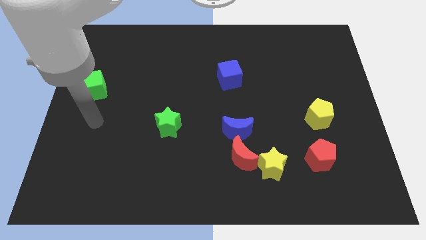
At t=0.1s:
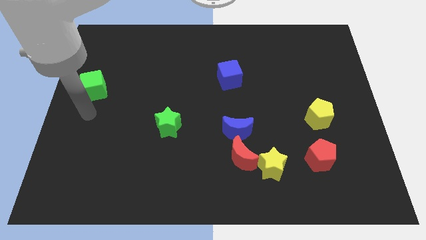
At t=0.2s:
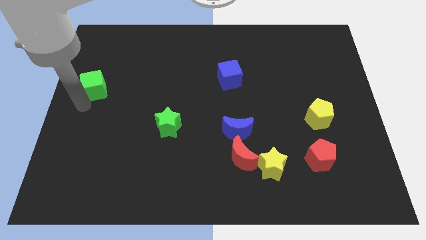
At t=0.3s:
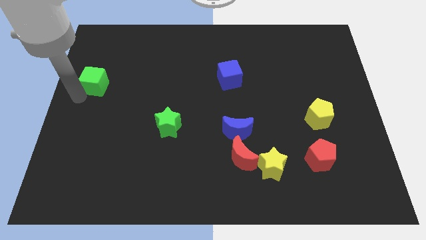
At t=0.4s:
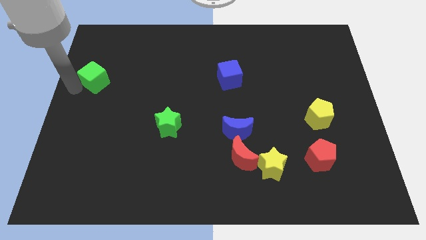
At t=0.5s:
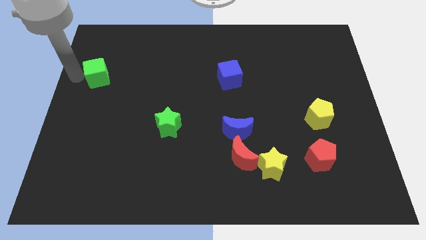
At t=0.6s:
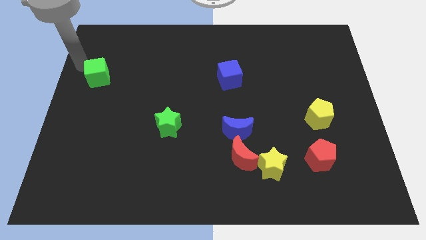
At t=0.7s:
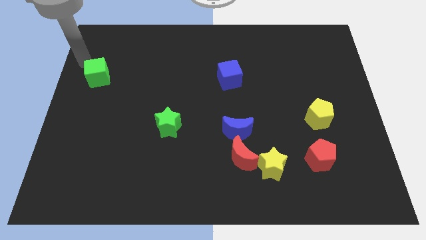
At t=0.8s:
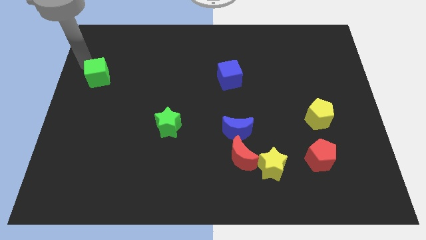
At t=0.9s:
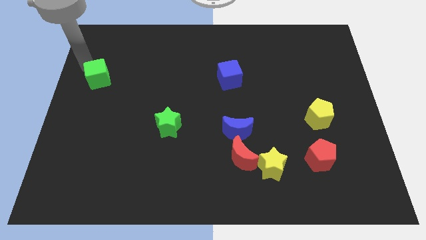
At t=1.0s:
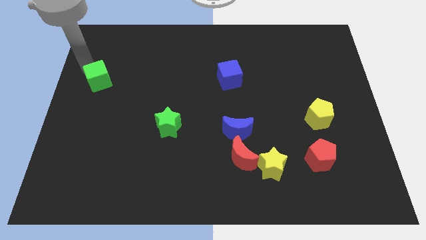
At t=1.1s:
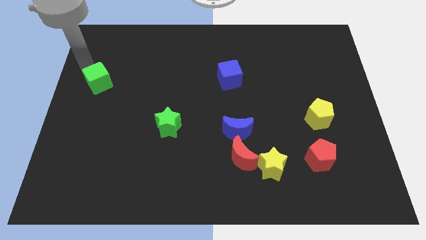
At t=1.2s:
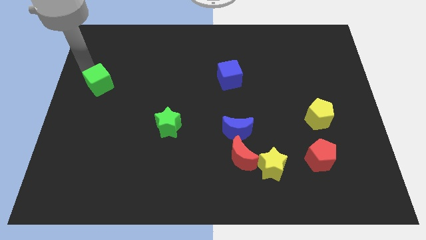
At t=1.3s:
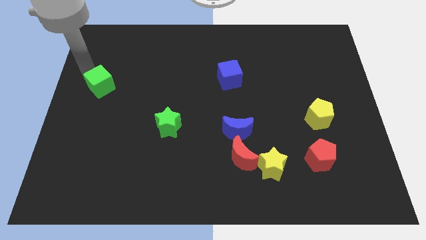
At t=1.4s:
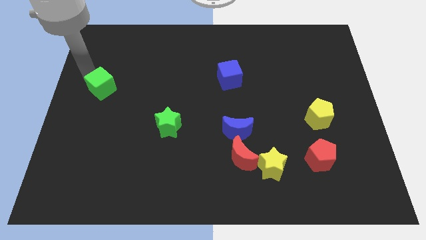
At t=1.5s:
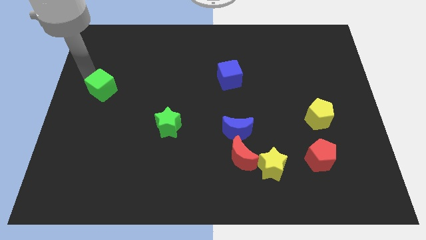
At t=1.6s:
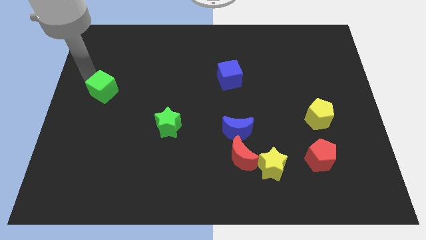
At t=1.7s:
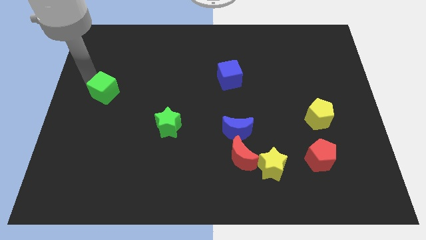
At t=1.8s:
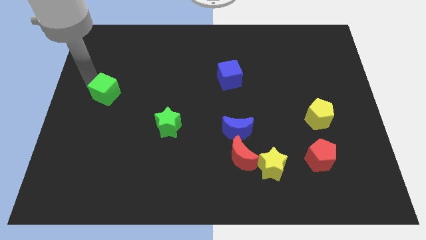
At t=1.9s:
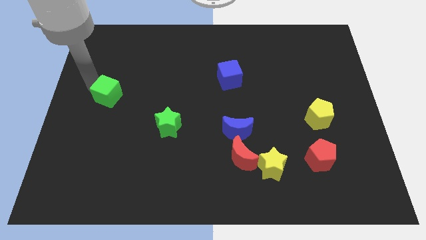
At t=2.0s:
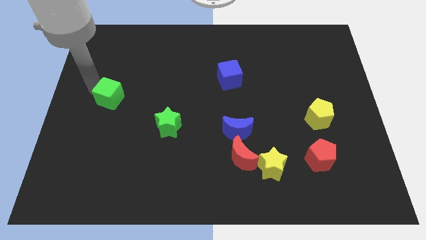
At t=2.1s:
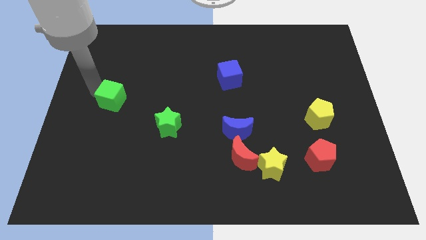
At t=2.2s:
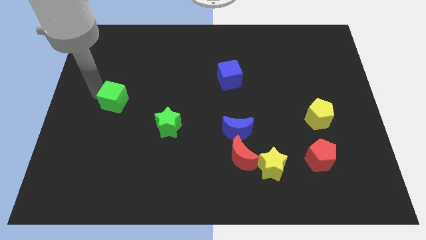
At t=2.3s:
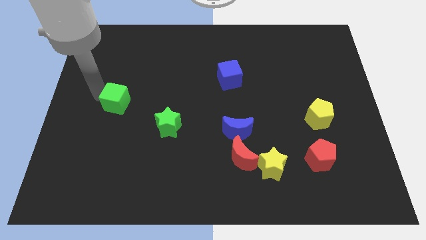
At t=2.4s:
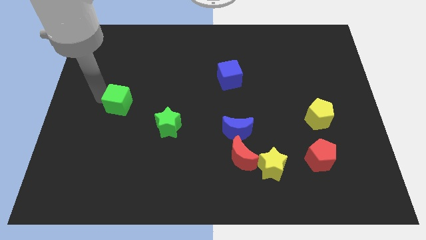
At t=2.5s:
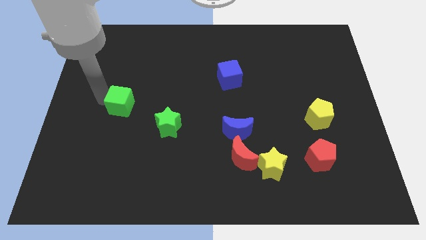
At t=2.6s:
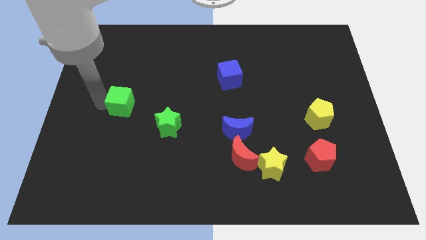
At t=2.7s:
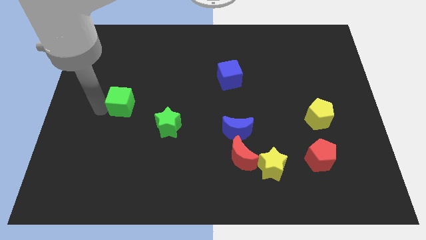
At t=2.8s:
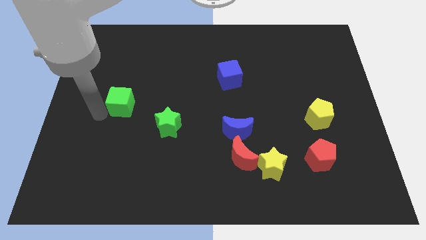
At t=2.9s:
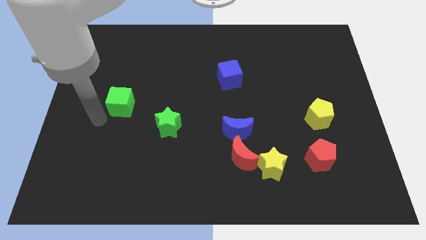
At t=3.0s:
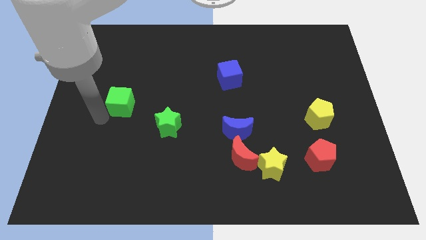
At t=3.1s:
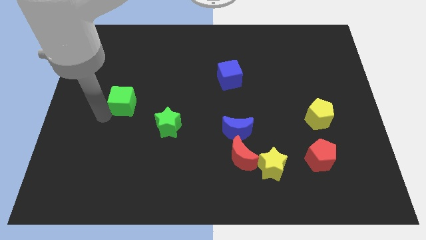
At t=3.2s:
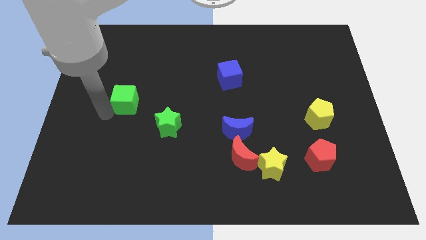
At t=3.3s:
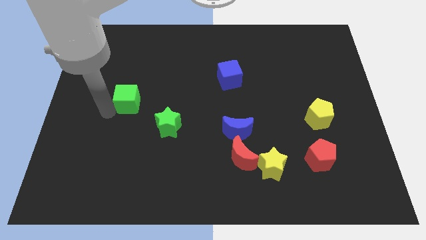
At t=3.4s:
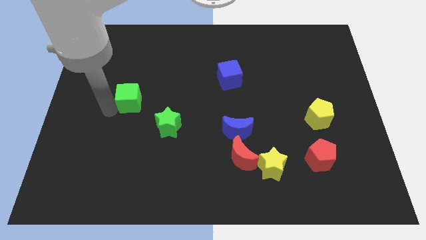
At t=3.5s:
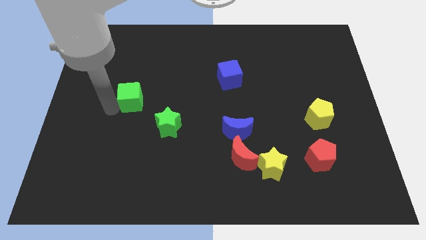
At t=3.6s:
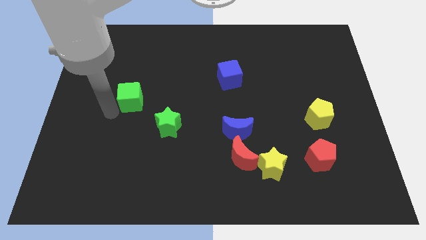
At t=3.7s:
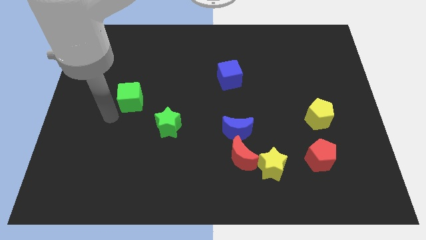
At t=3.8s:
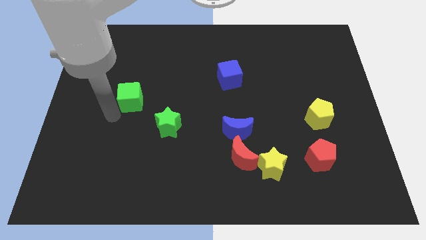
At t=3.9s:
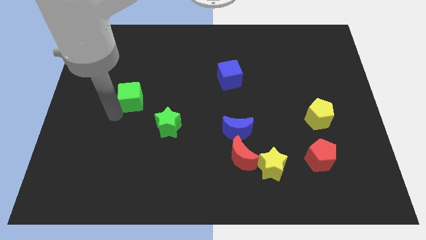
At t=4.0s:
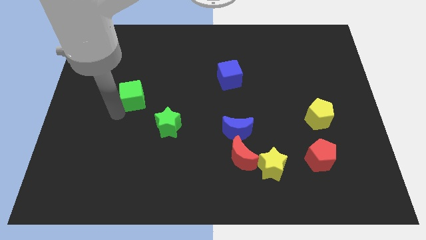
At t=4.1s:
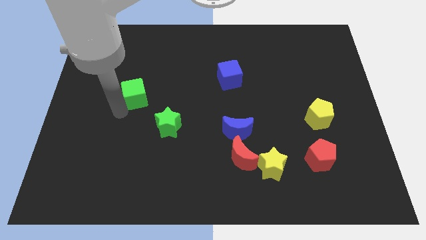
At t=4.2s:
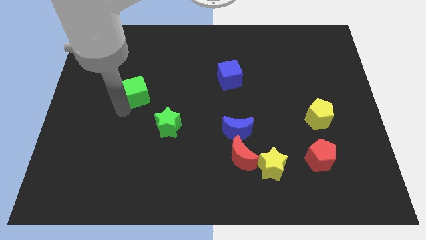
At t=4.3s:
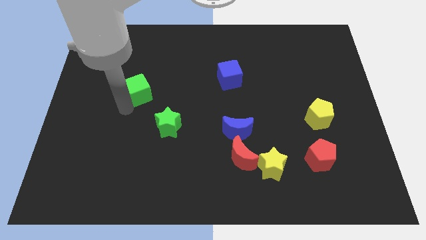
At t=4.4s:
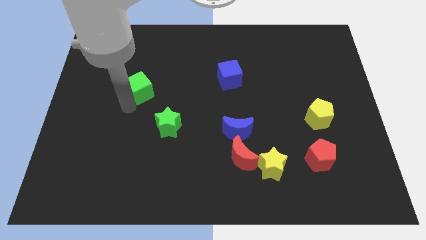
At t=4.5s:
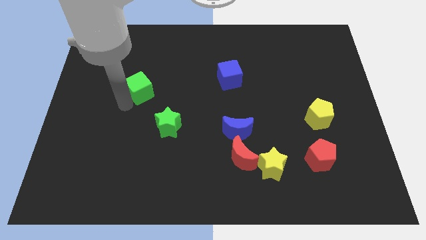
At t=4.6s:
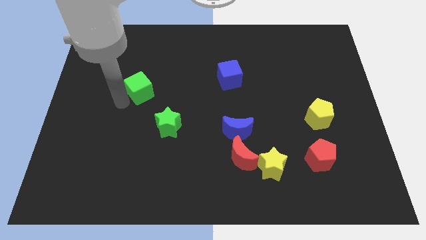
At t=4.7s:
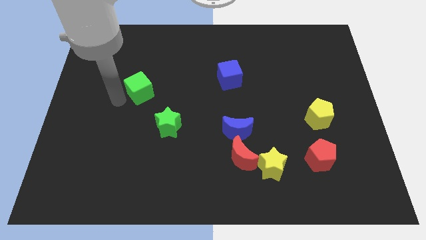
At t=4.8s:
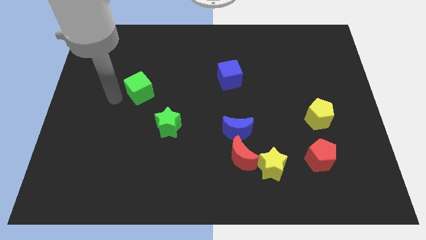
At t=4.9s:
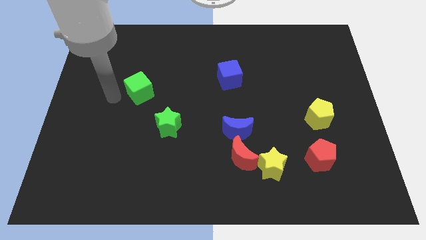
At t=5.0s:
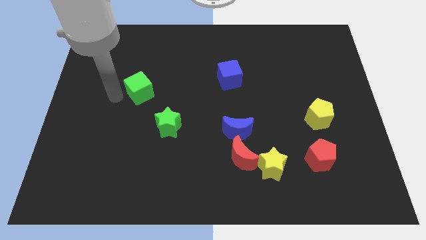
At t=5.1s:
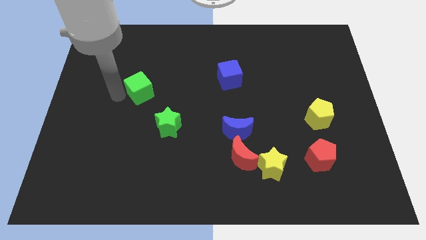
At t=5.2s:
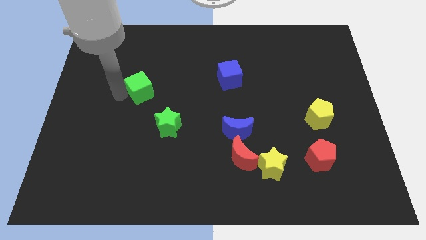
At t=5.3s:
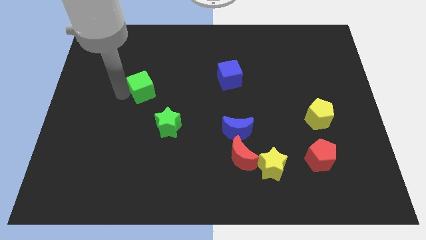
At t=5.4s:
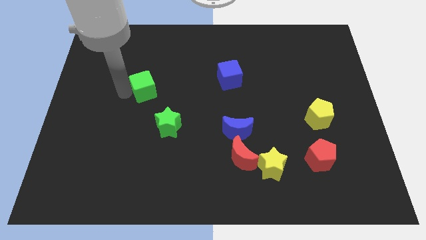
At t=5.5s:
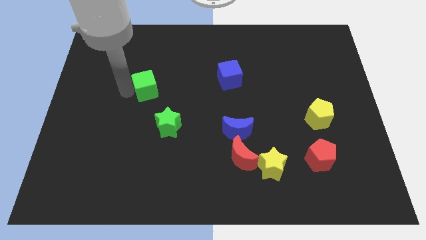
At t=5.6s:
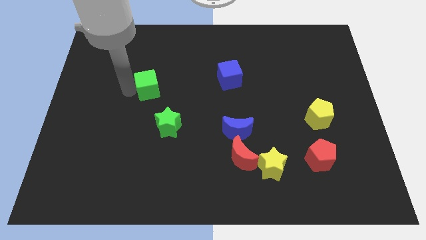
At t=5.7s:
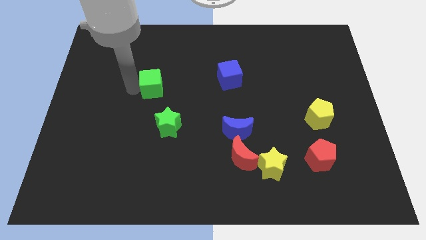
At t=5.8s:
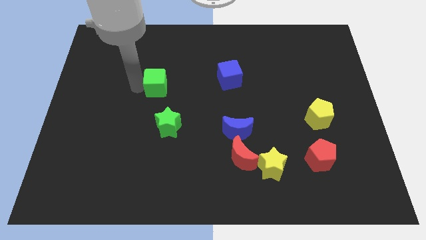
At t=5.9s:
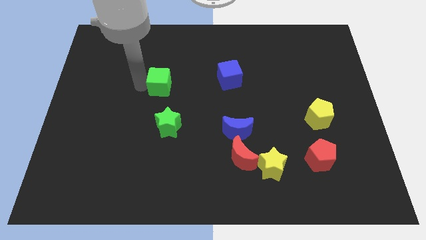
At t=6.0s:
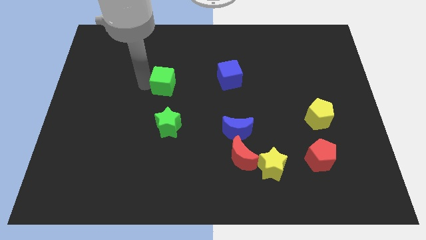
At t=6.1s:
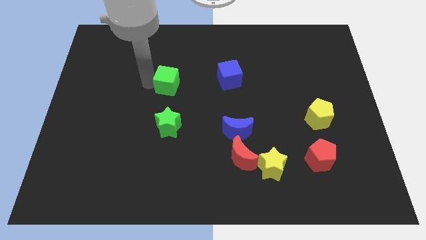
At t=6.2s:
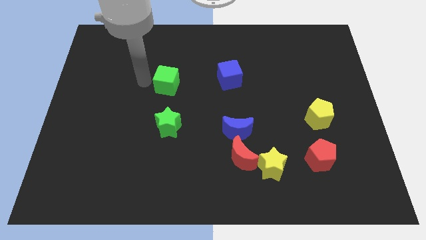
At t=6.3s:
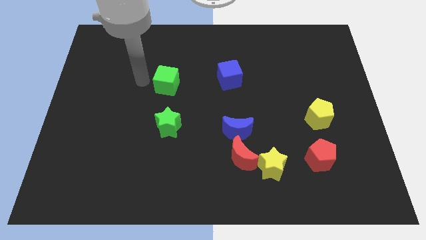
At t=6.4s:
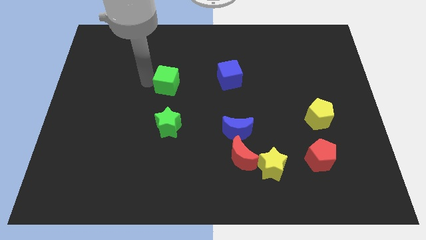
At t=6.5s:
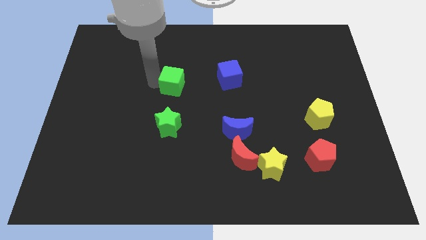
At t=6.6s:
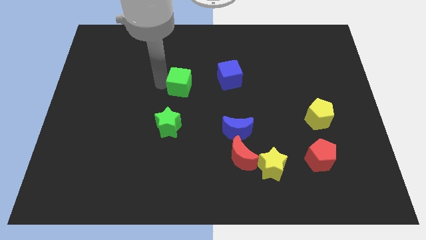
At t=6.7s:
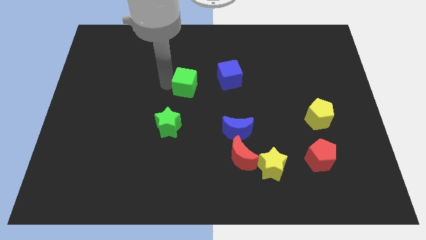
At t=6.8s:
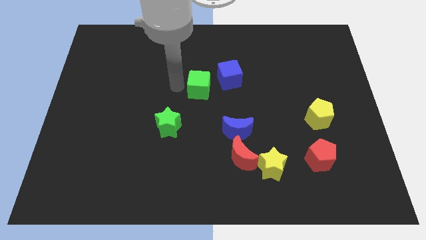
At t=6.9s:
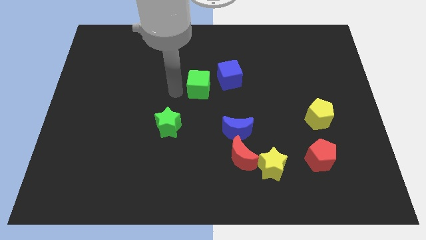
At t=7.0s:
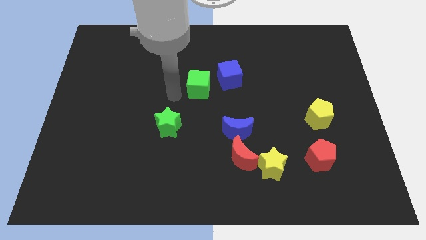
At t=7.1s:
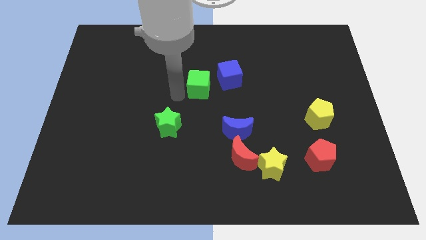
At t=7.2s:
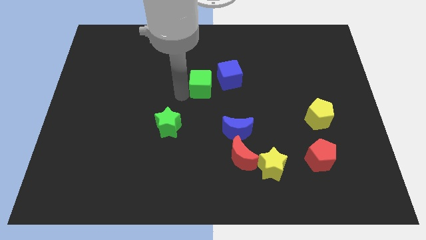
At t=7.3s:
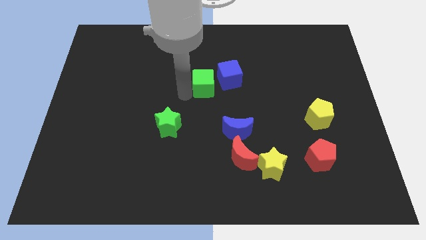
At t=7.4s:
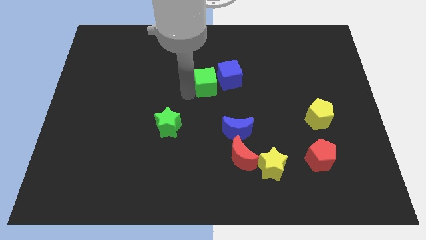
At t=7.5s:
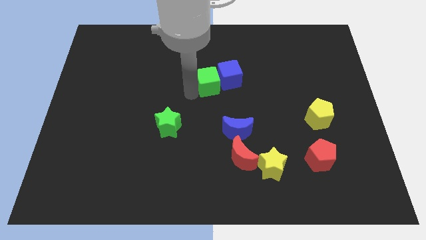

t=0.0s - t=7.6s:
push the green cube close to the blue cube
